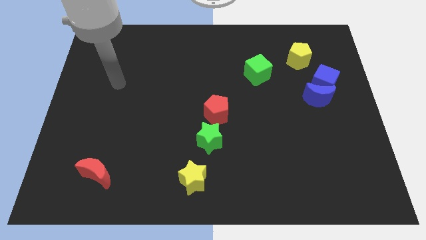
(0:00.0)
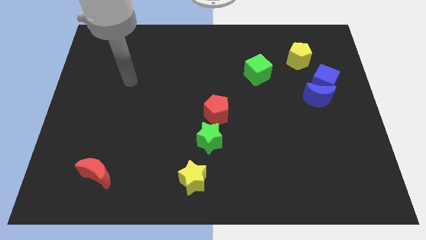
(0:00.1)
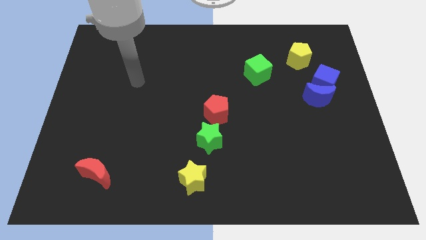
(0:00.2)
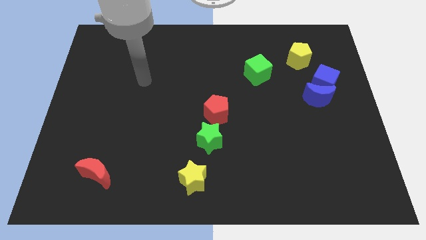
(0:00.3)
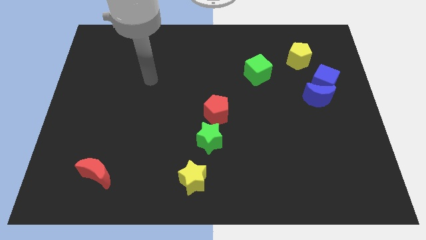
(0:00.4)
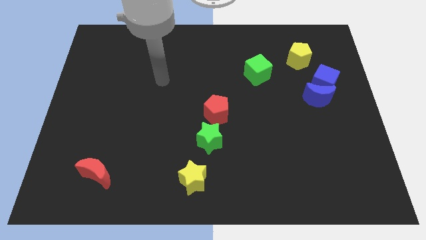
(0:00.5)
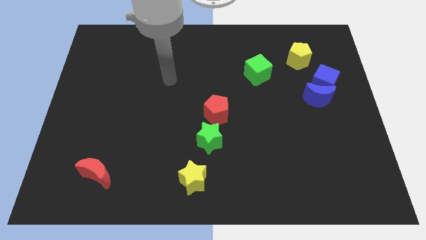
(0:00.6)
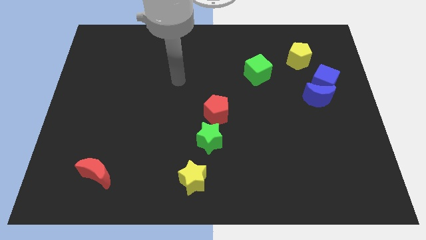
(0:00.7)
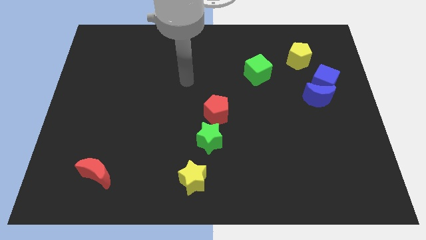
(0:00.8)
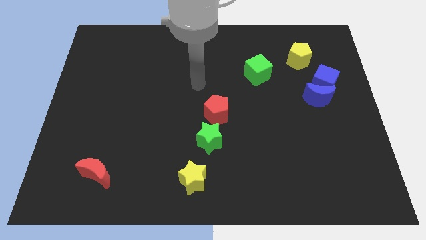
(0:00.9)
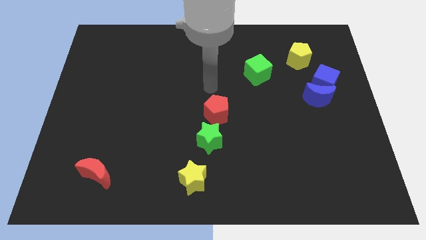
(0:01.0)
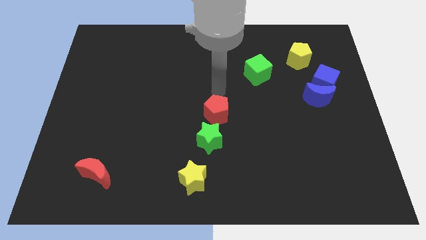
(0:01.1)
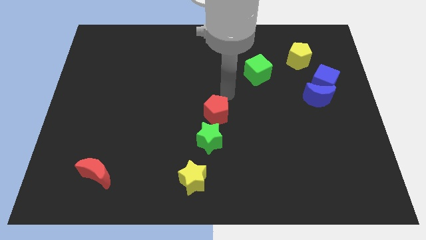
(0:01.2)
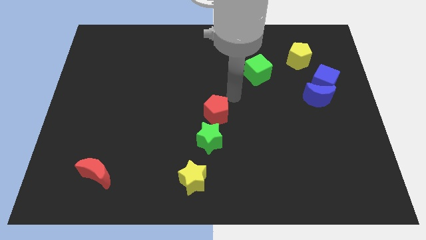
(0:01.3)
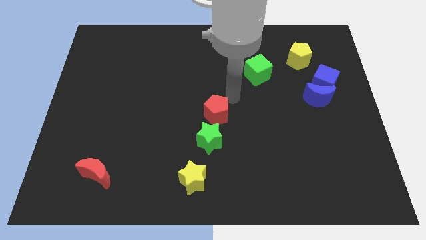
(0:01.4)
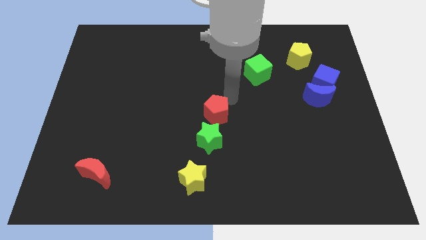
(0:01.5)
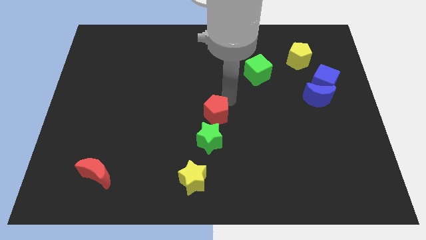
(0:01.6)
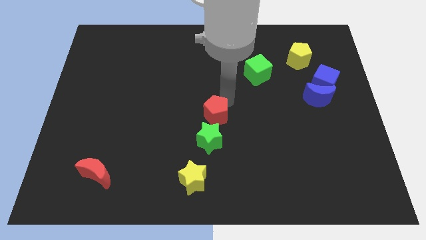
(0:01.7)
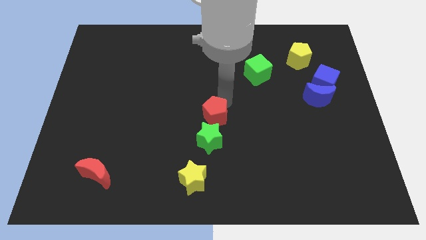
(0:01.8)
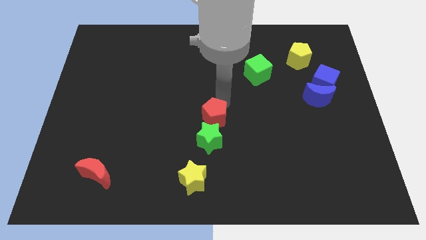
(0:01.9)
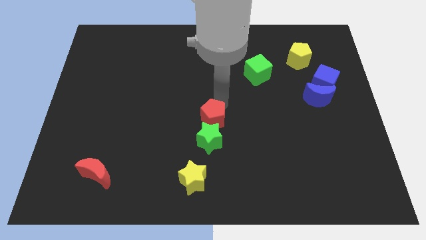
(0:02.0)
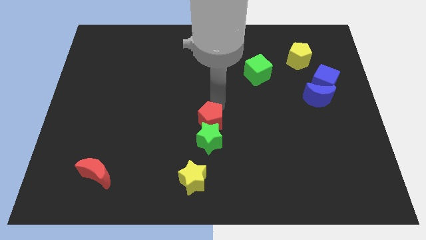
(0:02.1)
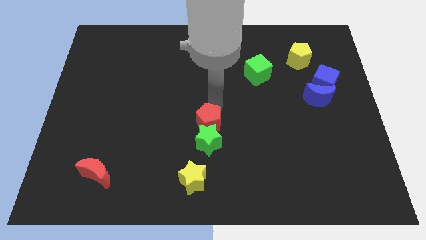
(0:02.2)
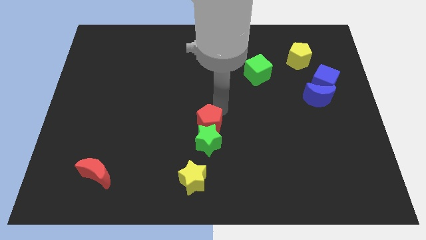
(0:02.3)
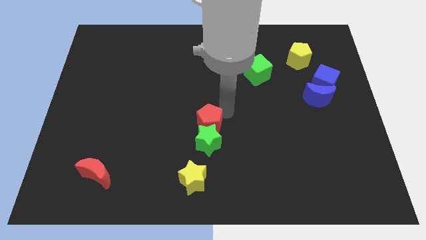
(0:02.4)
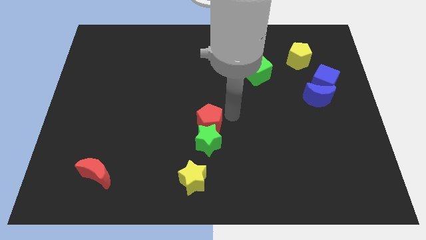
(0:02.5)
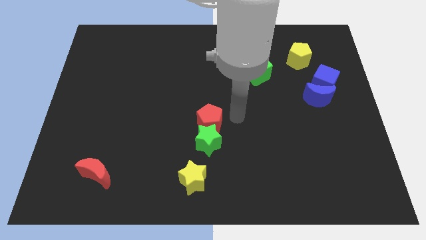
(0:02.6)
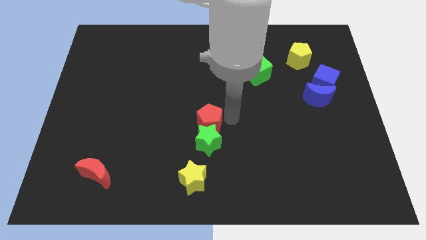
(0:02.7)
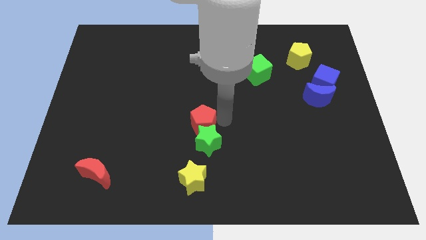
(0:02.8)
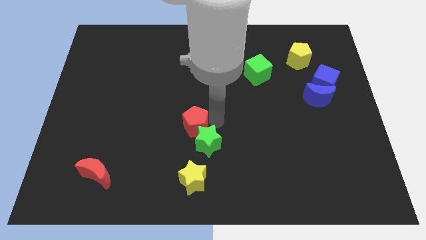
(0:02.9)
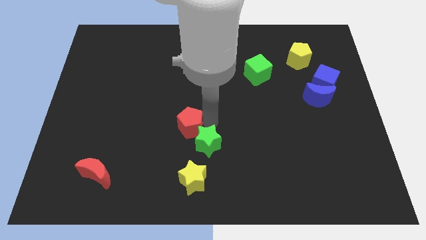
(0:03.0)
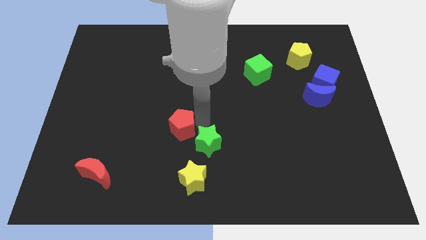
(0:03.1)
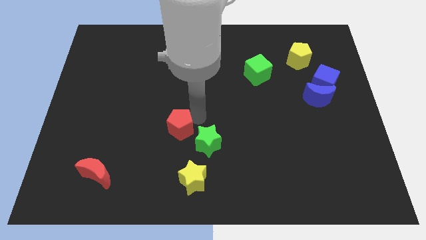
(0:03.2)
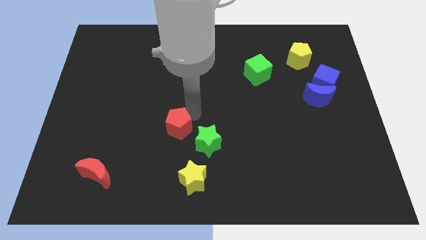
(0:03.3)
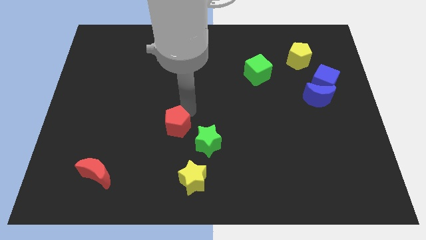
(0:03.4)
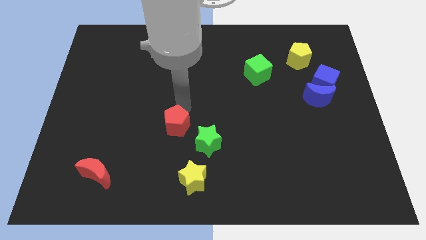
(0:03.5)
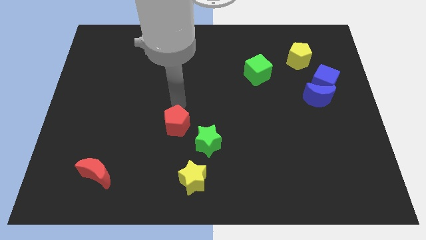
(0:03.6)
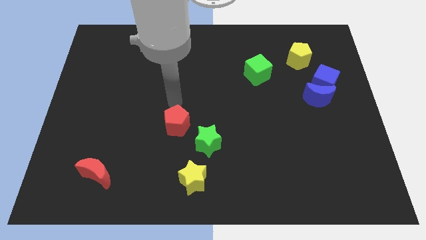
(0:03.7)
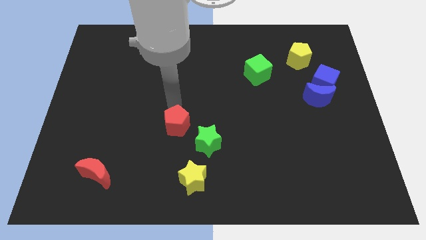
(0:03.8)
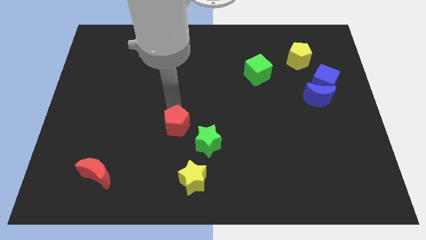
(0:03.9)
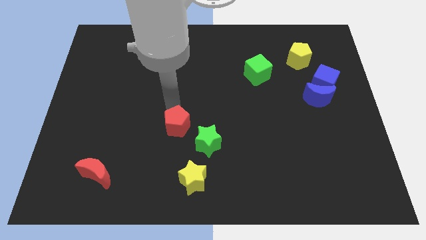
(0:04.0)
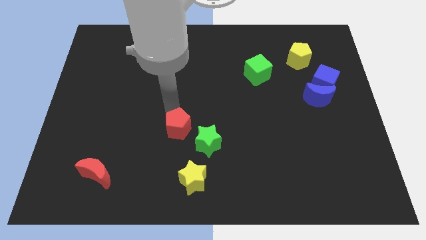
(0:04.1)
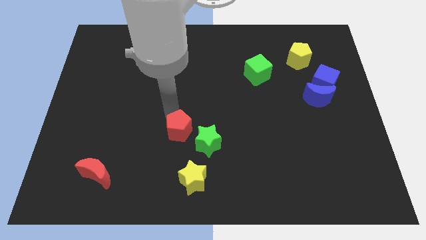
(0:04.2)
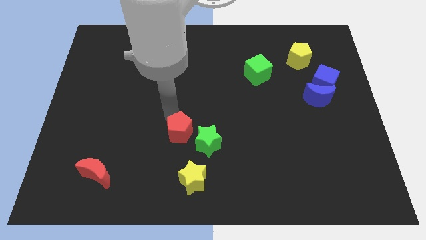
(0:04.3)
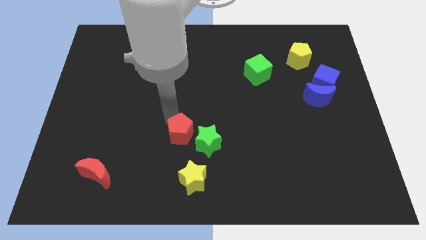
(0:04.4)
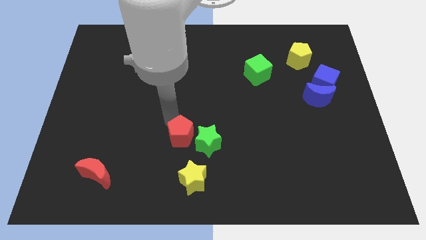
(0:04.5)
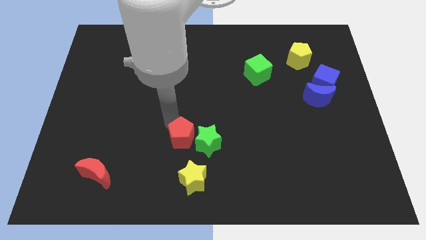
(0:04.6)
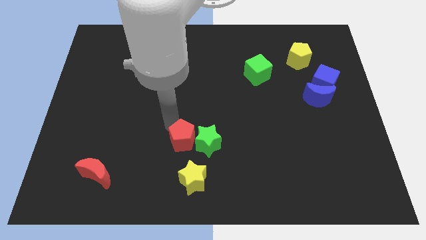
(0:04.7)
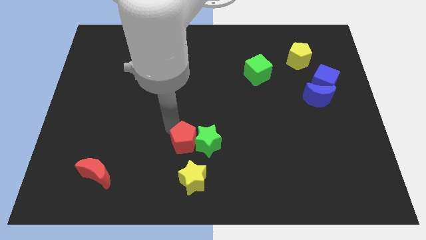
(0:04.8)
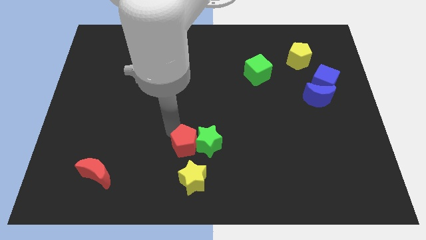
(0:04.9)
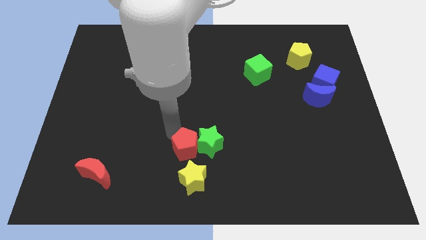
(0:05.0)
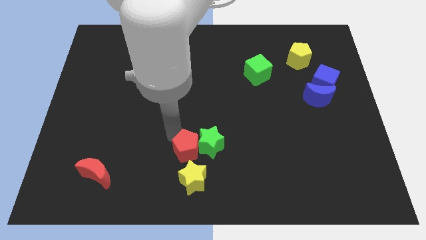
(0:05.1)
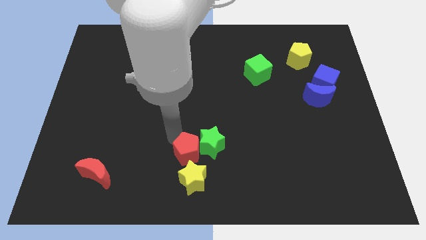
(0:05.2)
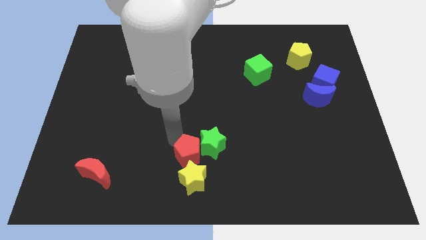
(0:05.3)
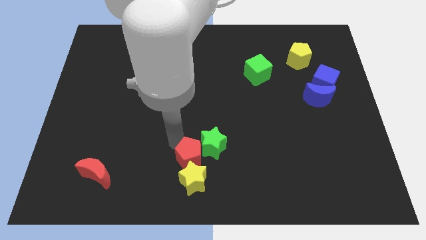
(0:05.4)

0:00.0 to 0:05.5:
slide the red pentagon to the yellow star

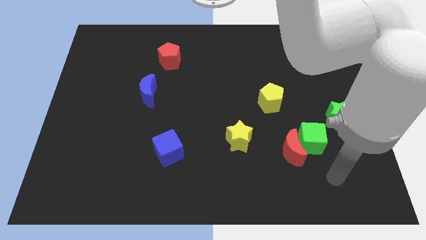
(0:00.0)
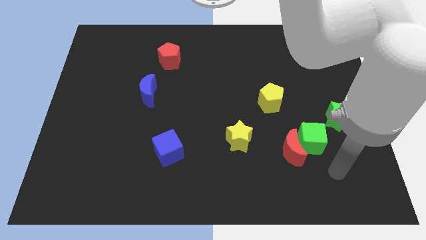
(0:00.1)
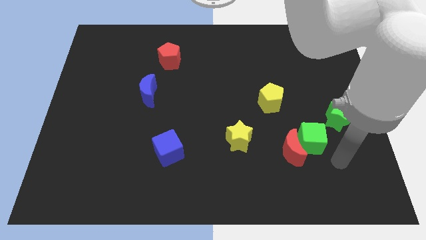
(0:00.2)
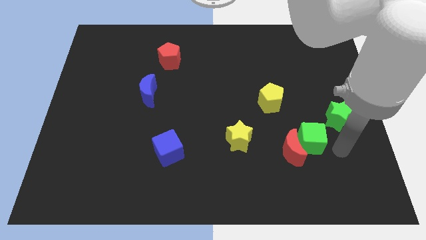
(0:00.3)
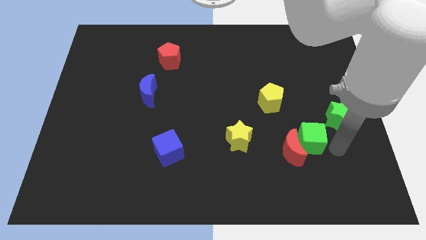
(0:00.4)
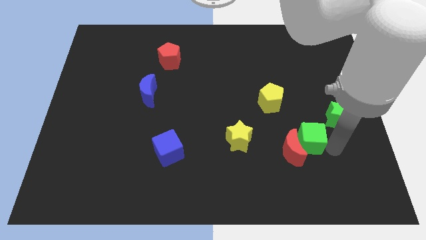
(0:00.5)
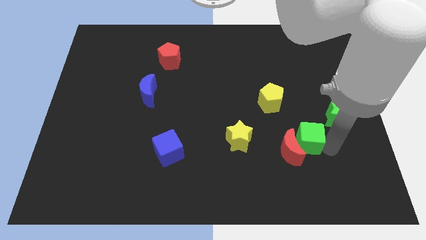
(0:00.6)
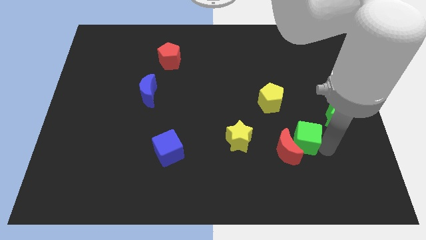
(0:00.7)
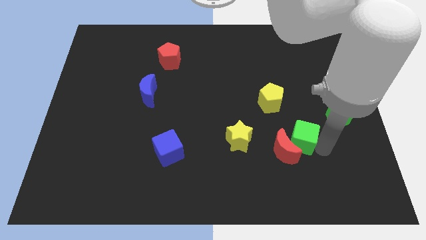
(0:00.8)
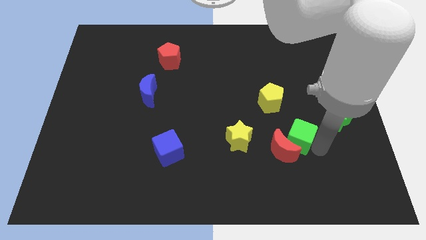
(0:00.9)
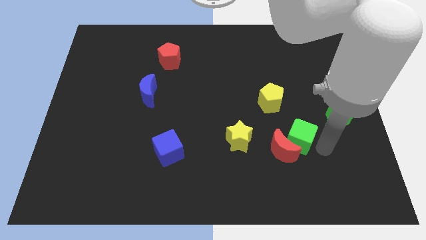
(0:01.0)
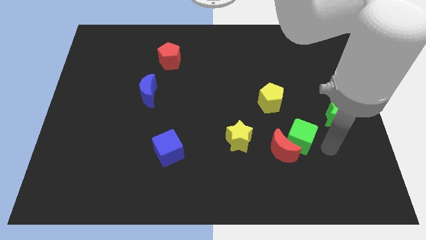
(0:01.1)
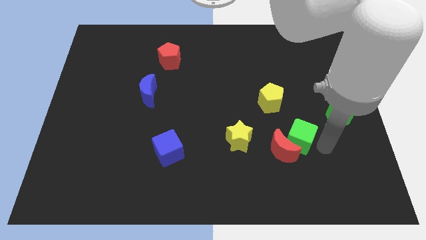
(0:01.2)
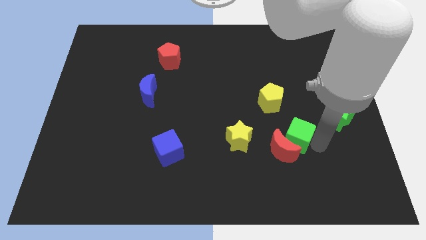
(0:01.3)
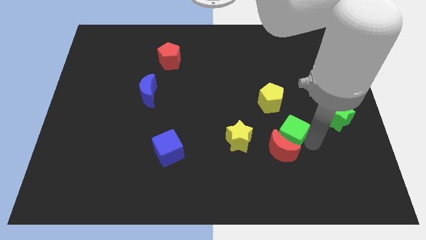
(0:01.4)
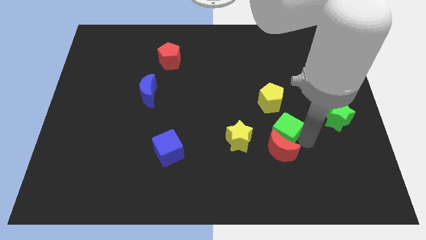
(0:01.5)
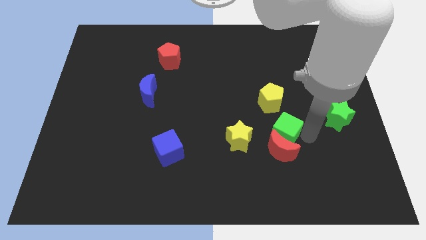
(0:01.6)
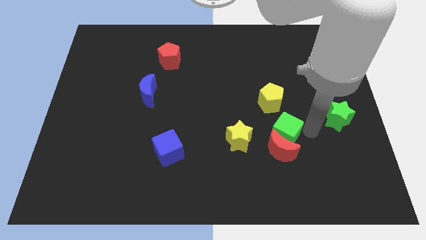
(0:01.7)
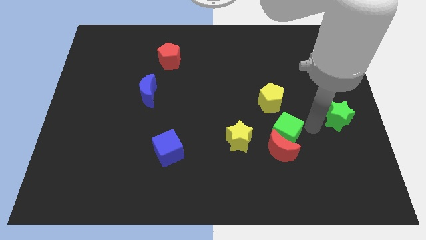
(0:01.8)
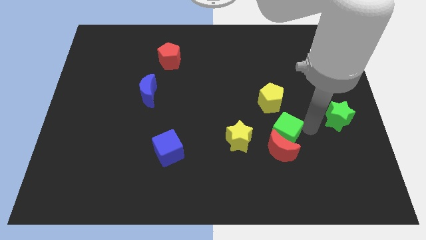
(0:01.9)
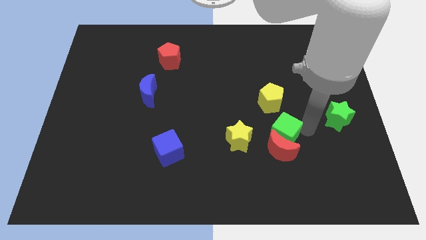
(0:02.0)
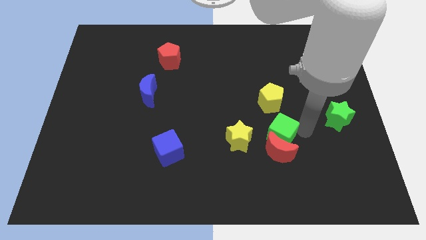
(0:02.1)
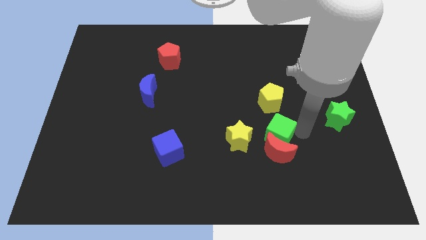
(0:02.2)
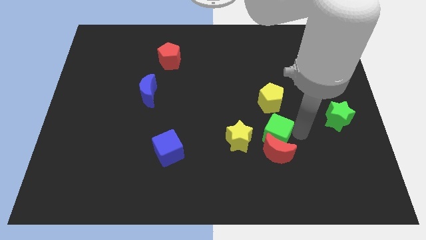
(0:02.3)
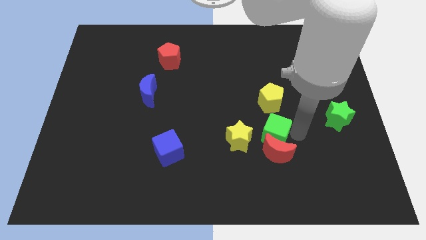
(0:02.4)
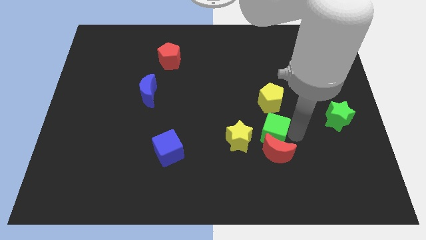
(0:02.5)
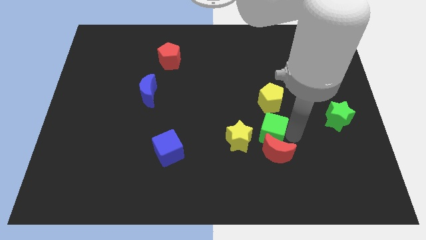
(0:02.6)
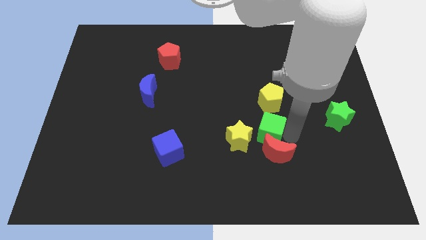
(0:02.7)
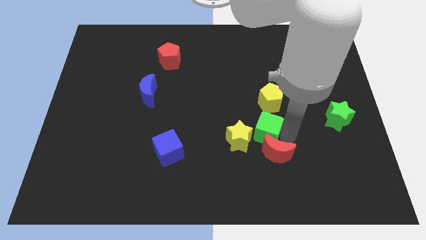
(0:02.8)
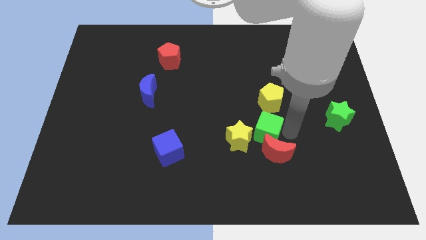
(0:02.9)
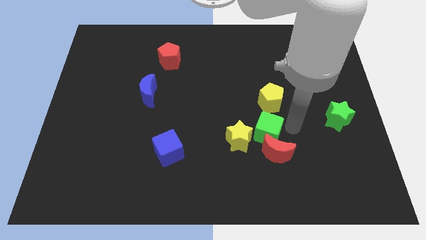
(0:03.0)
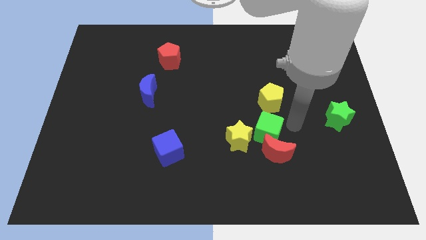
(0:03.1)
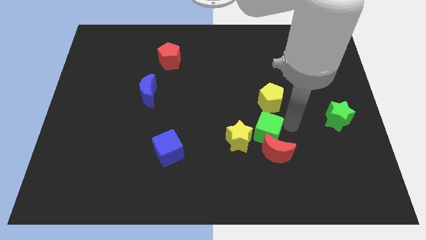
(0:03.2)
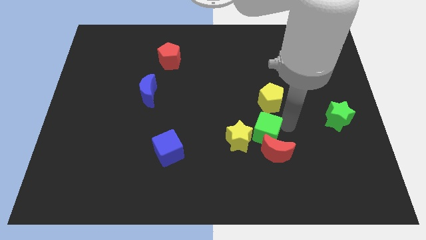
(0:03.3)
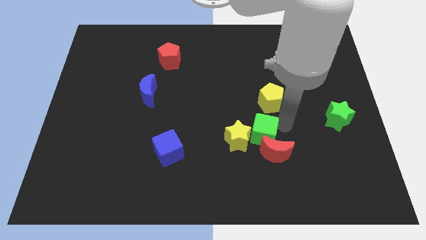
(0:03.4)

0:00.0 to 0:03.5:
slide the green cube next to the yellow star
